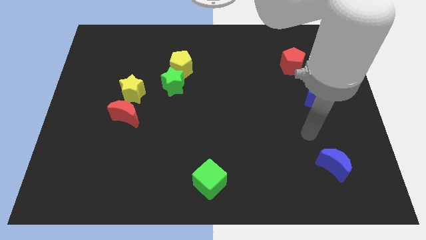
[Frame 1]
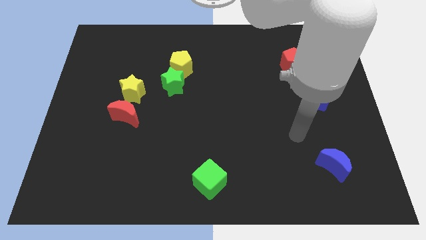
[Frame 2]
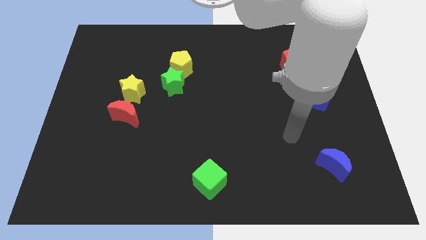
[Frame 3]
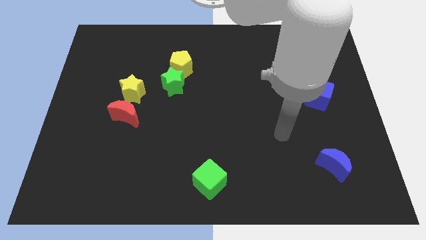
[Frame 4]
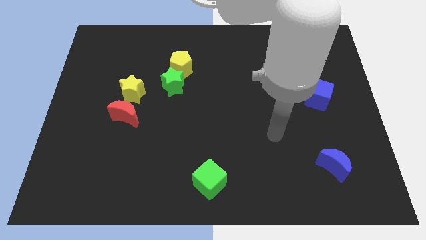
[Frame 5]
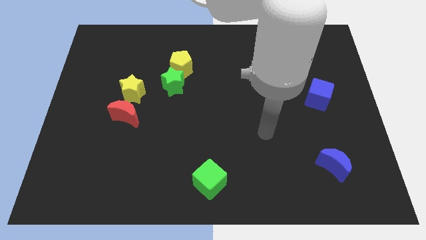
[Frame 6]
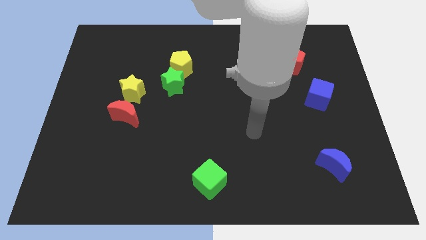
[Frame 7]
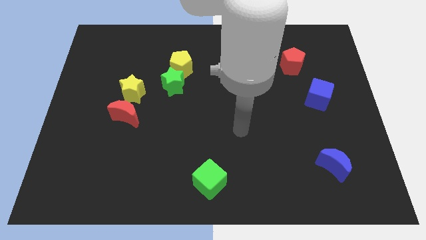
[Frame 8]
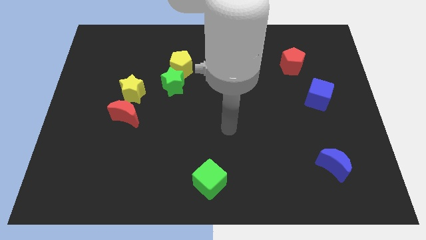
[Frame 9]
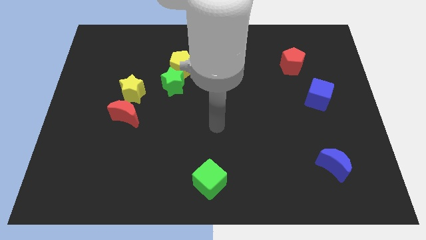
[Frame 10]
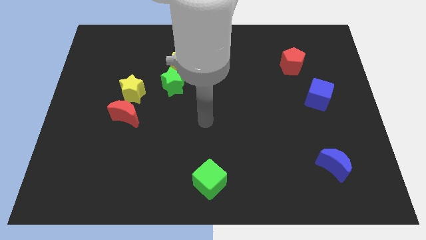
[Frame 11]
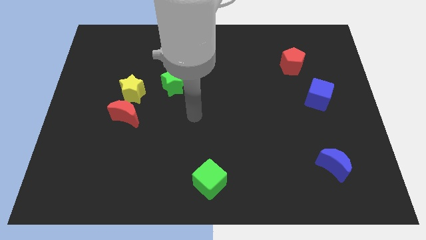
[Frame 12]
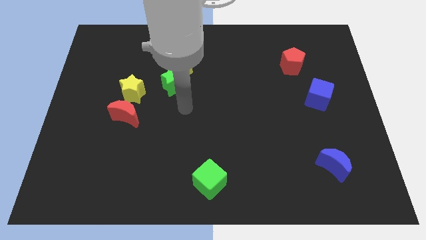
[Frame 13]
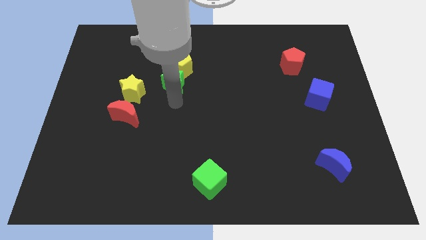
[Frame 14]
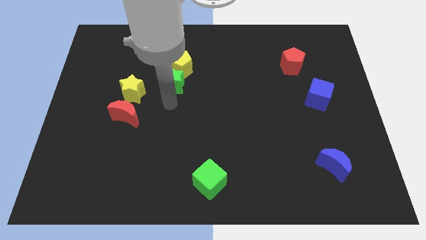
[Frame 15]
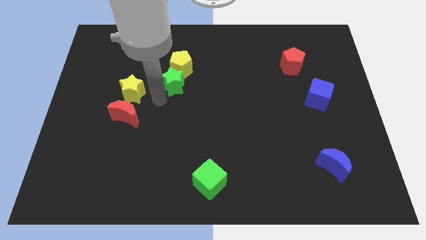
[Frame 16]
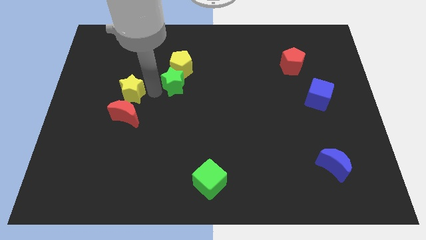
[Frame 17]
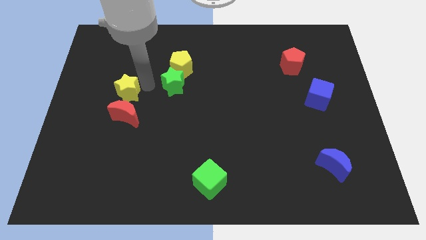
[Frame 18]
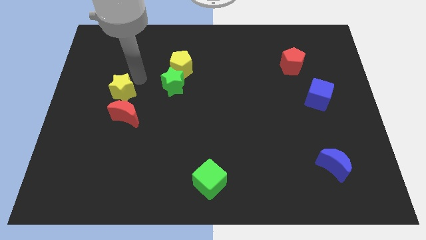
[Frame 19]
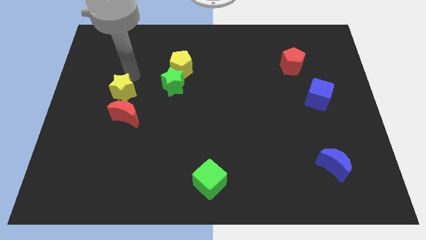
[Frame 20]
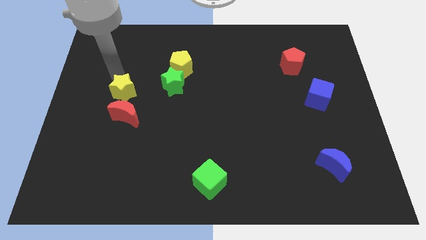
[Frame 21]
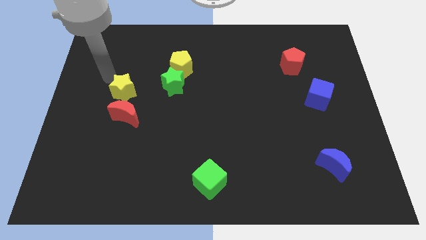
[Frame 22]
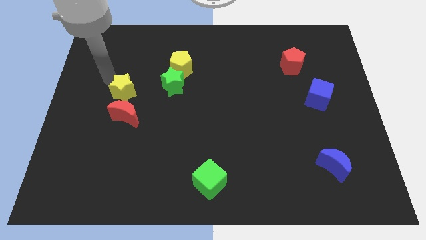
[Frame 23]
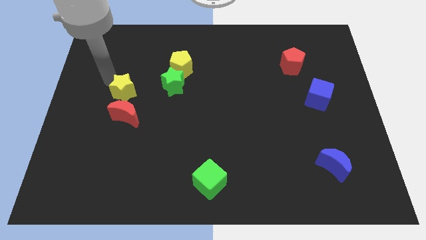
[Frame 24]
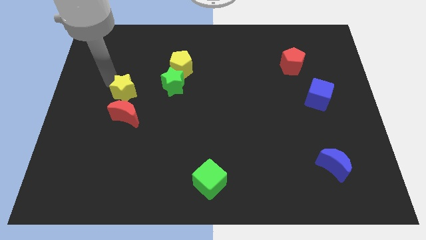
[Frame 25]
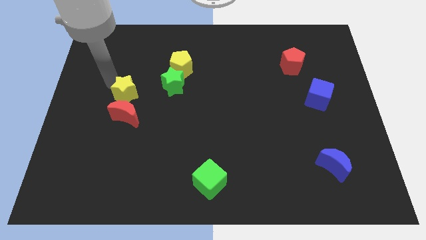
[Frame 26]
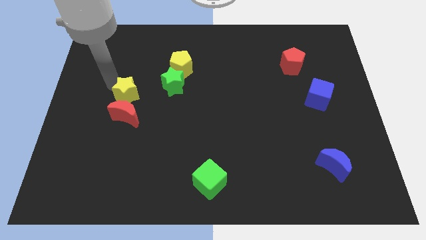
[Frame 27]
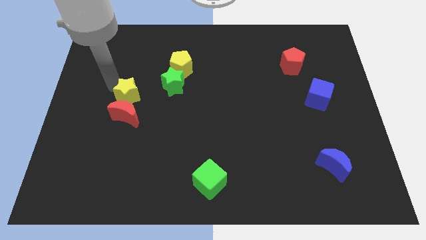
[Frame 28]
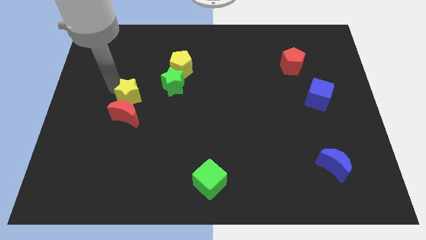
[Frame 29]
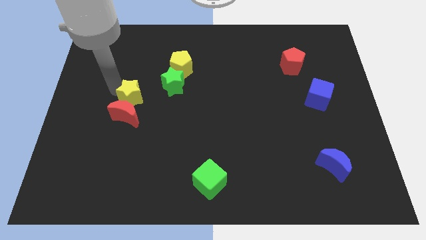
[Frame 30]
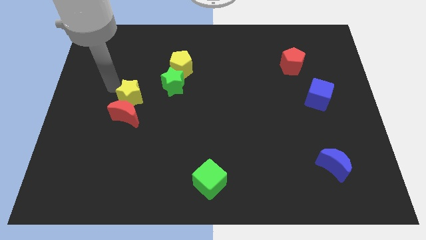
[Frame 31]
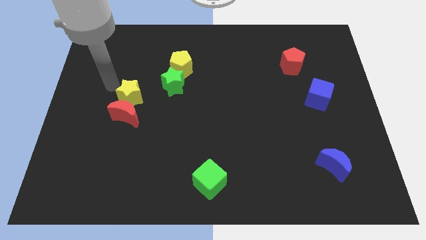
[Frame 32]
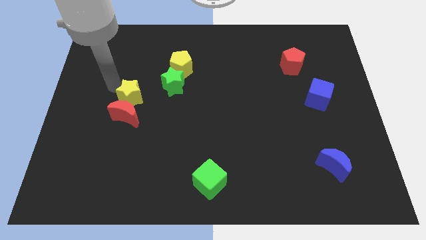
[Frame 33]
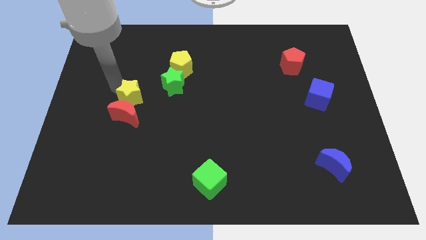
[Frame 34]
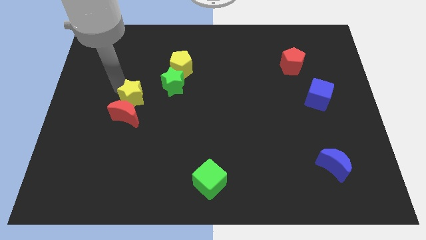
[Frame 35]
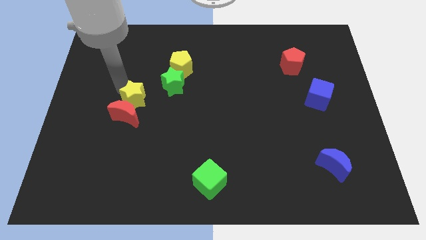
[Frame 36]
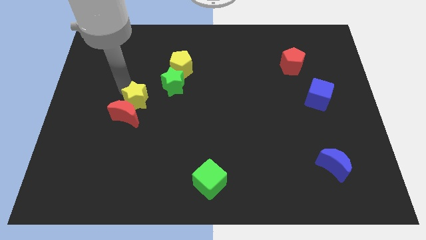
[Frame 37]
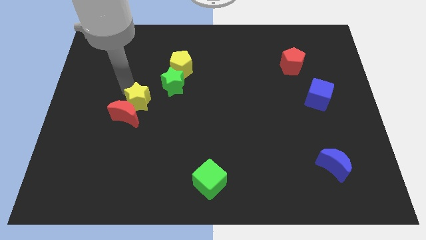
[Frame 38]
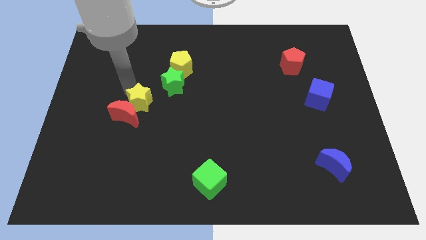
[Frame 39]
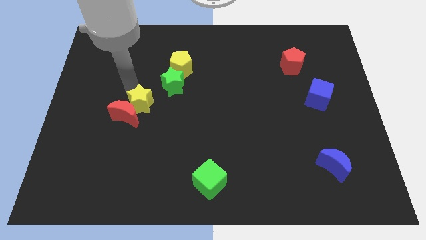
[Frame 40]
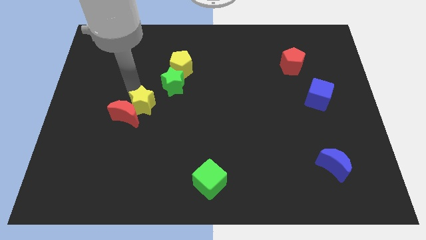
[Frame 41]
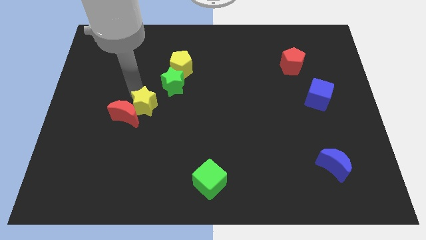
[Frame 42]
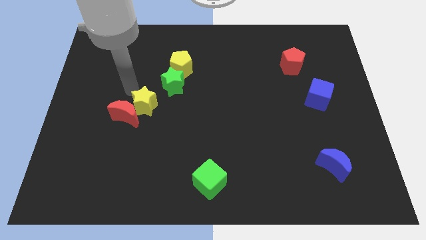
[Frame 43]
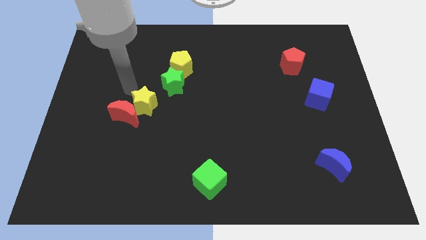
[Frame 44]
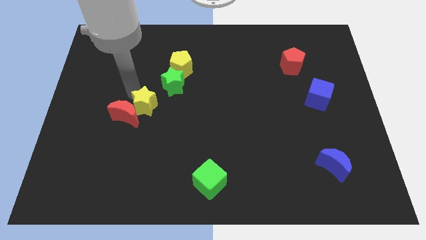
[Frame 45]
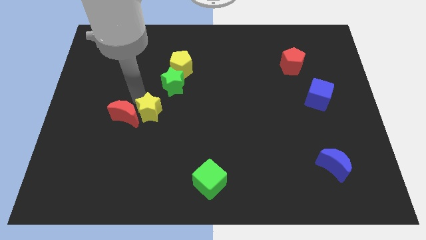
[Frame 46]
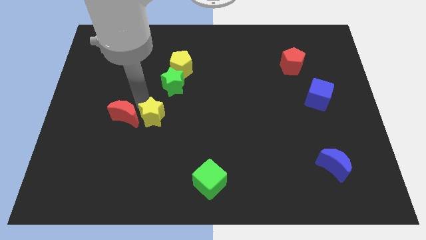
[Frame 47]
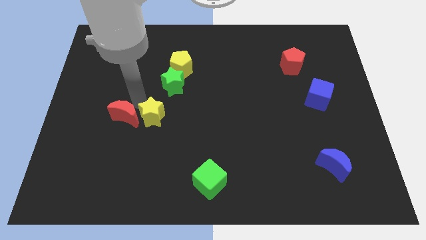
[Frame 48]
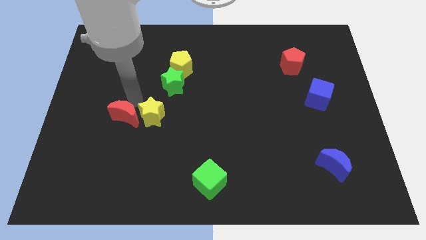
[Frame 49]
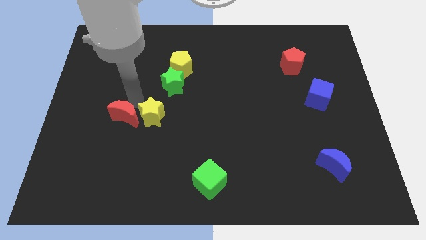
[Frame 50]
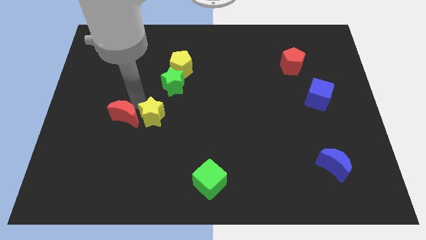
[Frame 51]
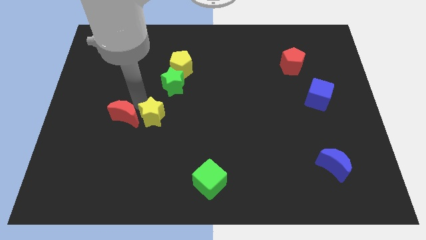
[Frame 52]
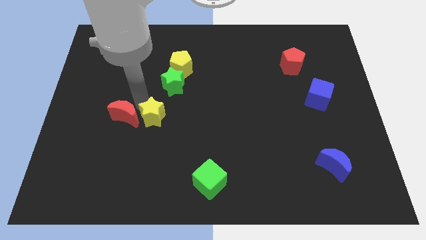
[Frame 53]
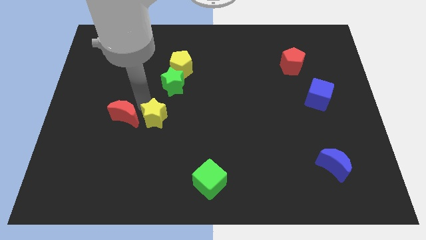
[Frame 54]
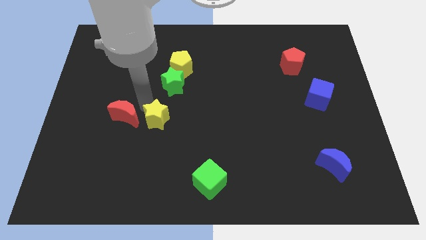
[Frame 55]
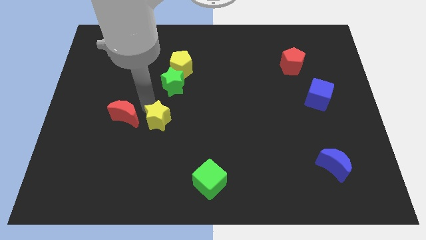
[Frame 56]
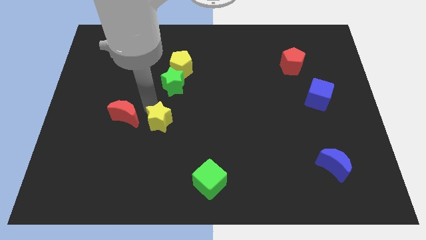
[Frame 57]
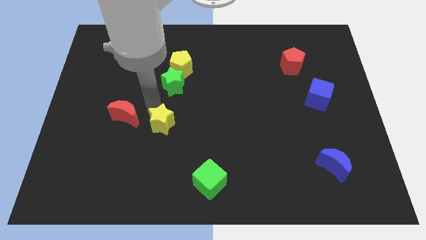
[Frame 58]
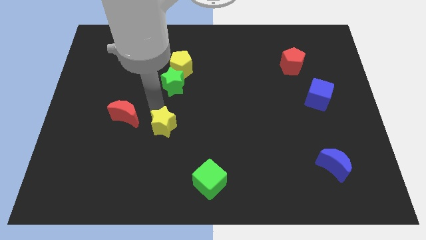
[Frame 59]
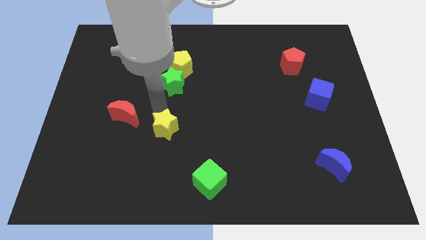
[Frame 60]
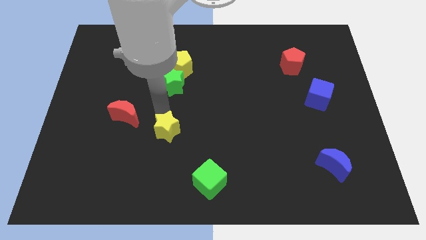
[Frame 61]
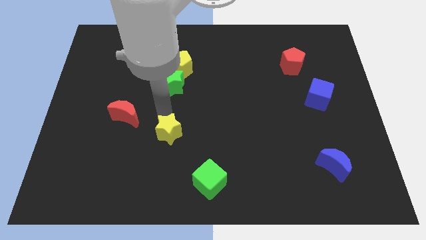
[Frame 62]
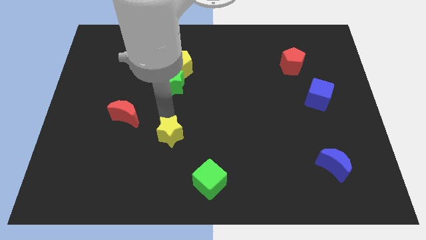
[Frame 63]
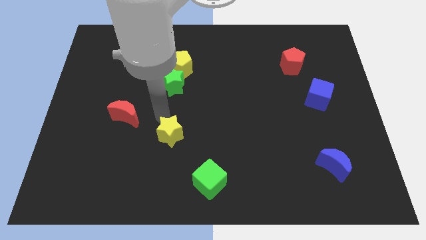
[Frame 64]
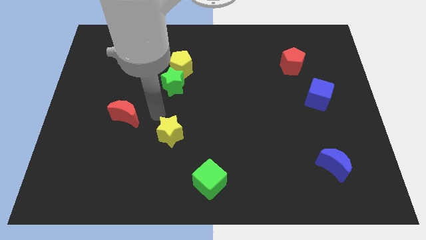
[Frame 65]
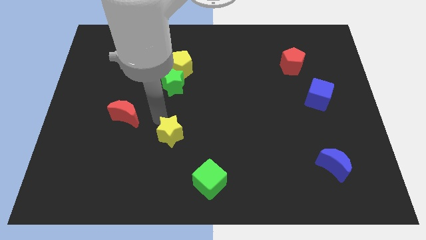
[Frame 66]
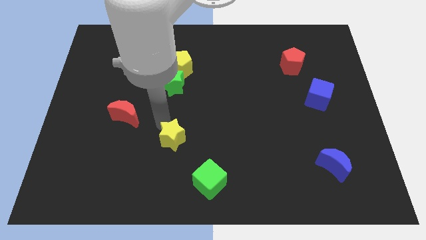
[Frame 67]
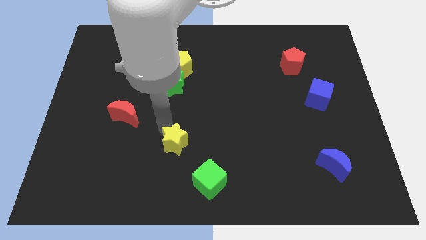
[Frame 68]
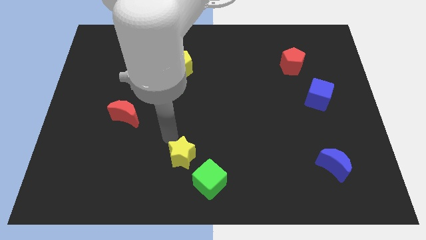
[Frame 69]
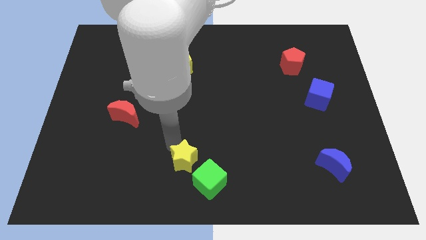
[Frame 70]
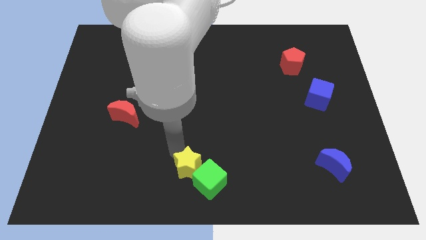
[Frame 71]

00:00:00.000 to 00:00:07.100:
slide the yellow star close to the green cube
